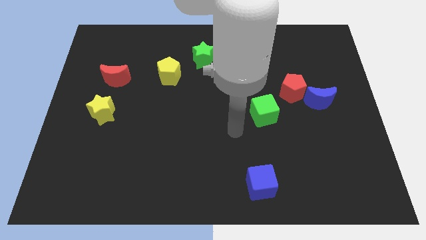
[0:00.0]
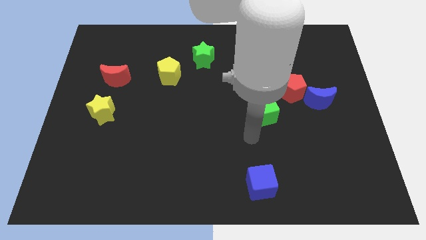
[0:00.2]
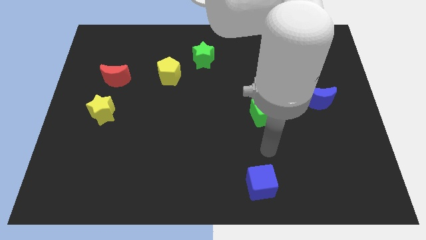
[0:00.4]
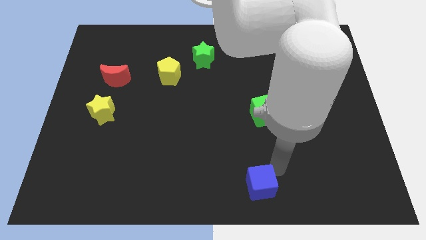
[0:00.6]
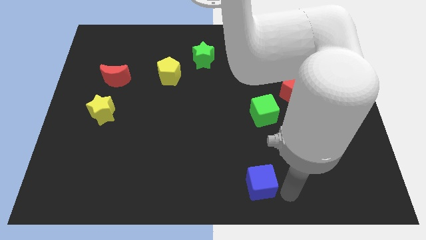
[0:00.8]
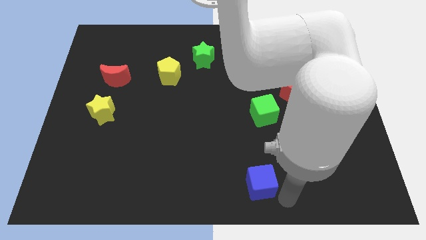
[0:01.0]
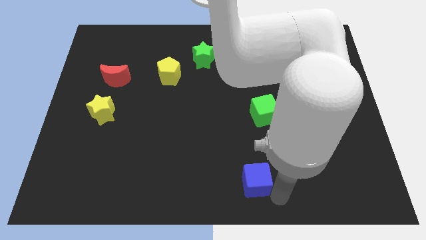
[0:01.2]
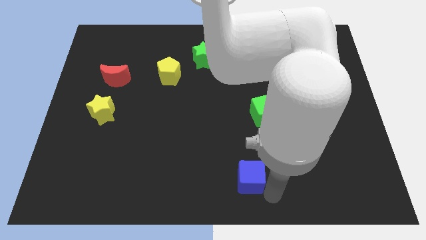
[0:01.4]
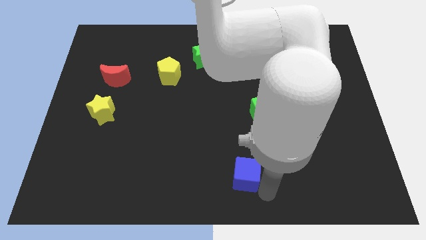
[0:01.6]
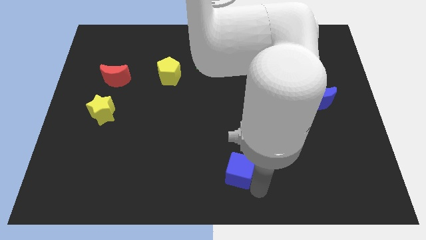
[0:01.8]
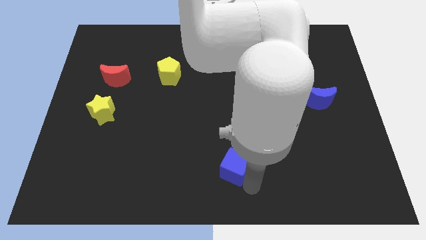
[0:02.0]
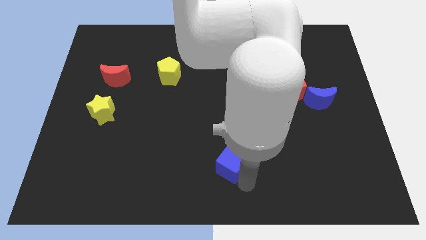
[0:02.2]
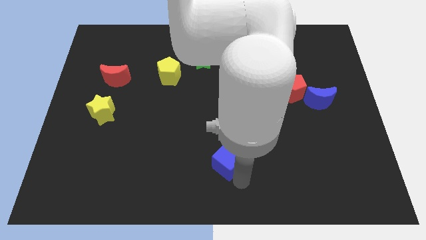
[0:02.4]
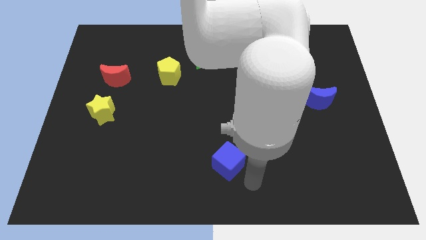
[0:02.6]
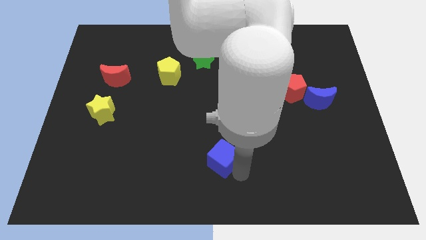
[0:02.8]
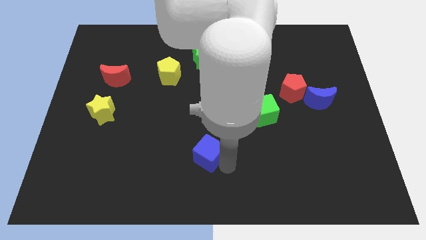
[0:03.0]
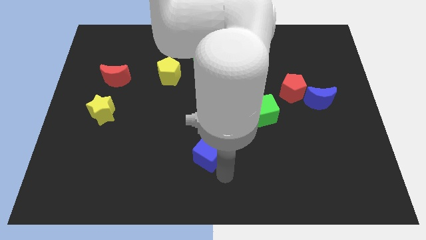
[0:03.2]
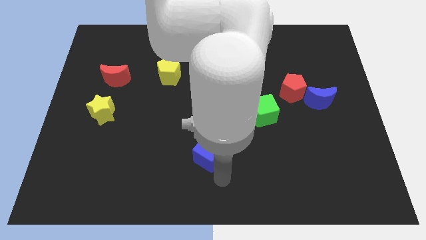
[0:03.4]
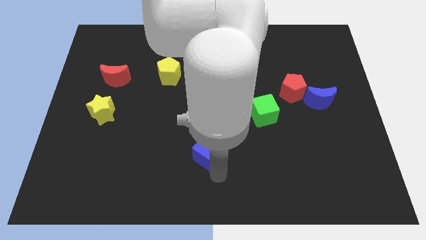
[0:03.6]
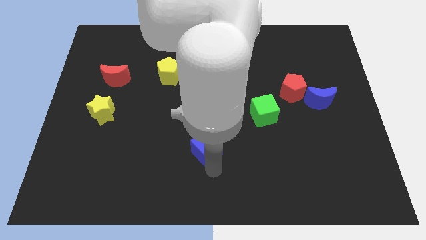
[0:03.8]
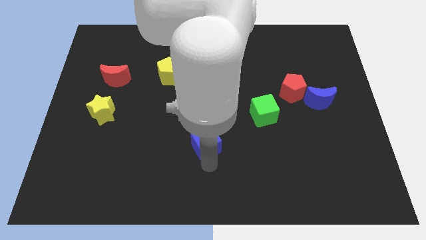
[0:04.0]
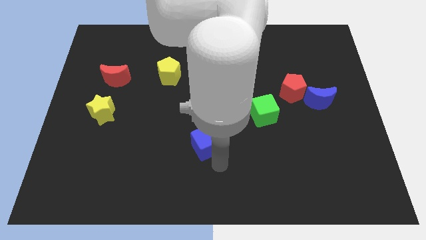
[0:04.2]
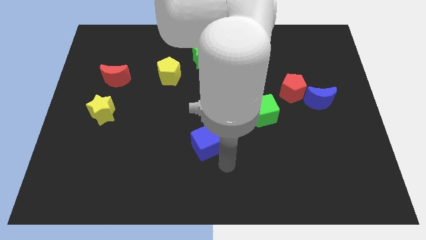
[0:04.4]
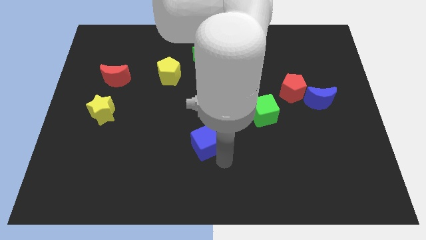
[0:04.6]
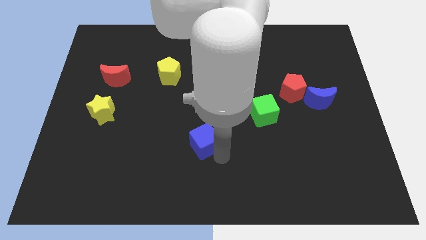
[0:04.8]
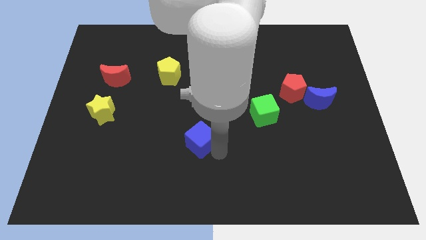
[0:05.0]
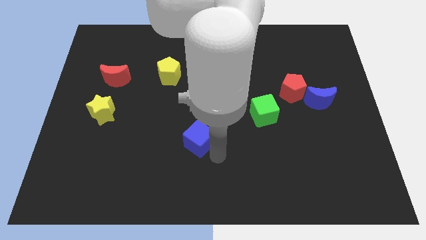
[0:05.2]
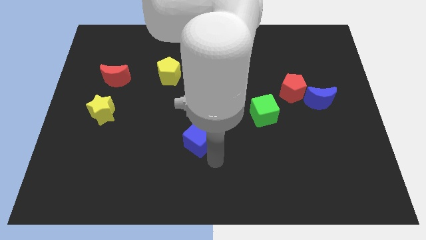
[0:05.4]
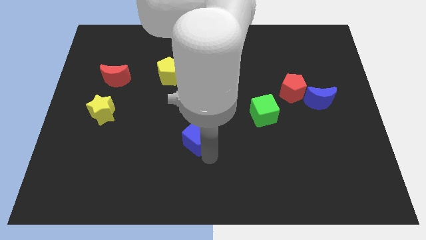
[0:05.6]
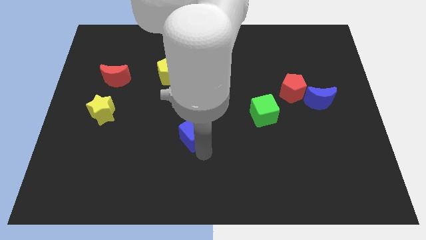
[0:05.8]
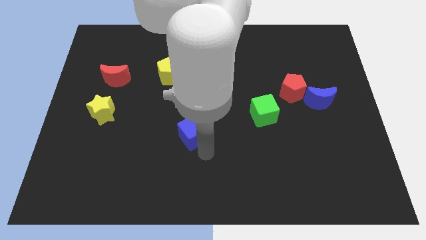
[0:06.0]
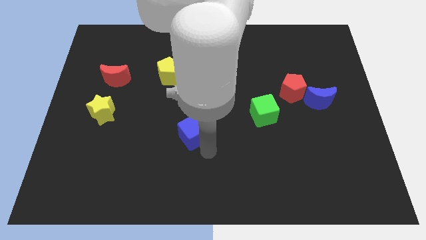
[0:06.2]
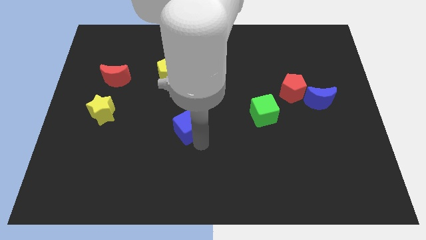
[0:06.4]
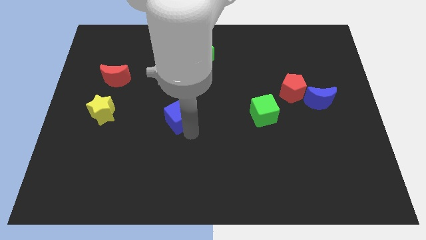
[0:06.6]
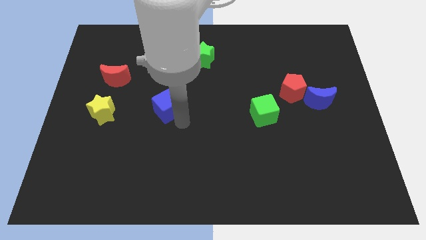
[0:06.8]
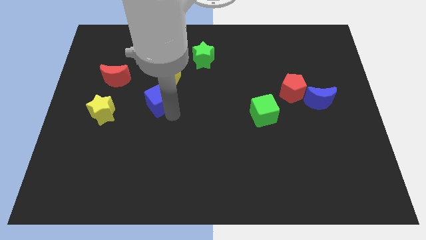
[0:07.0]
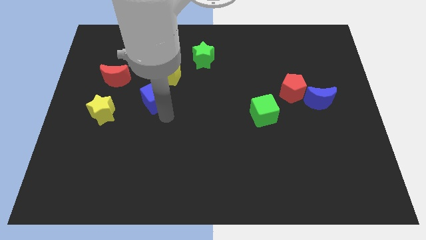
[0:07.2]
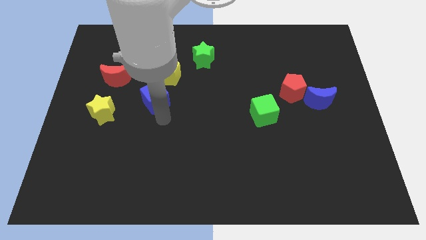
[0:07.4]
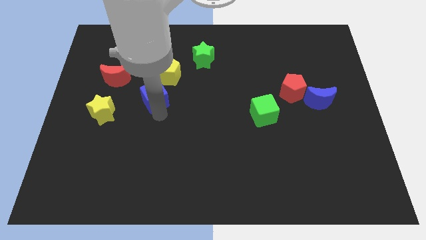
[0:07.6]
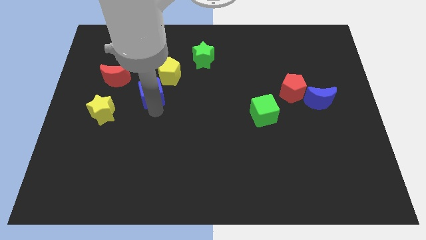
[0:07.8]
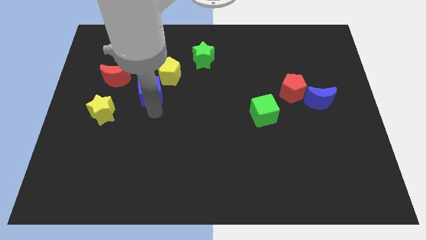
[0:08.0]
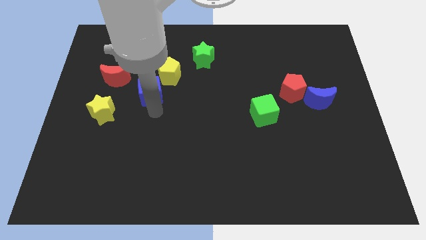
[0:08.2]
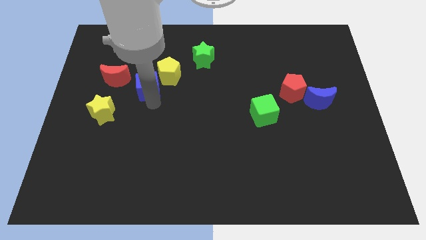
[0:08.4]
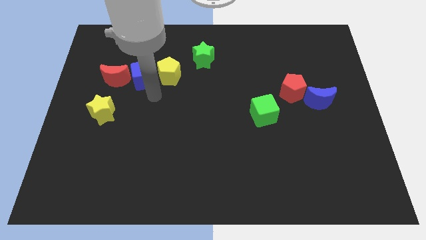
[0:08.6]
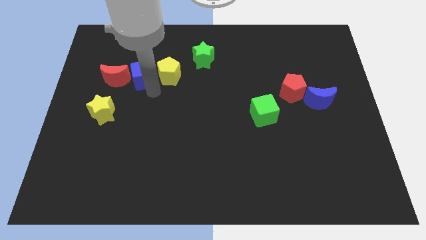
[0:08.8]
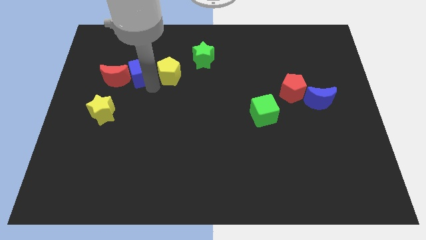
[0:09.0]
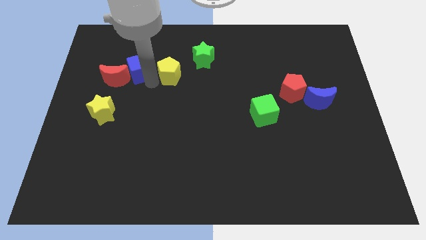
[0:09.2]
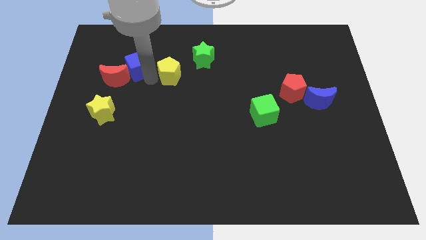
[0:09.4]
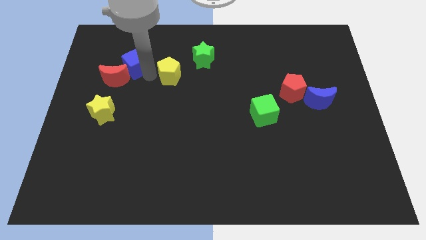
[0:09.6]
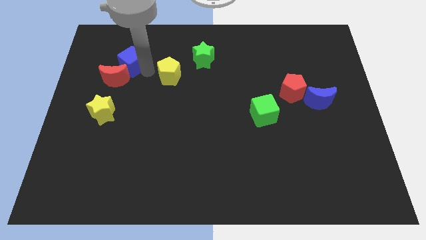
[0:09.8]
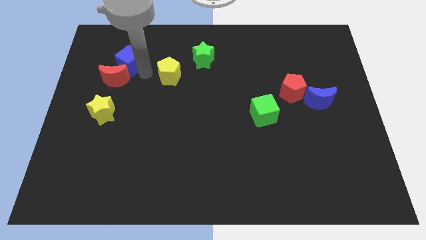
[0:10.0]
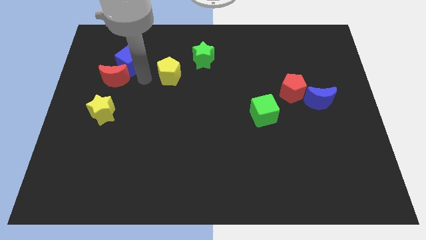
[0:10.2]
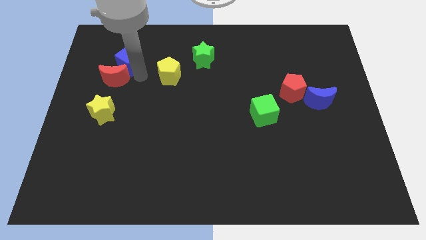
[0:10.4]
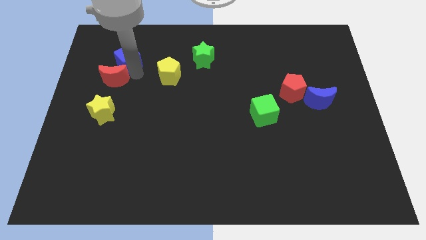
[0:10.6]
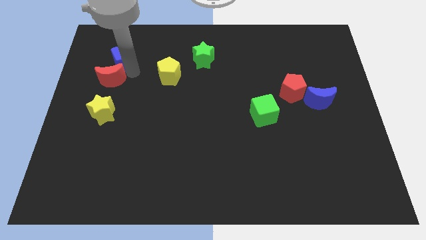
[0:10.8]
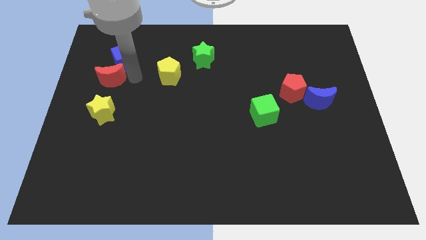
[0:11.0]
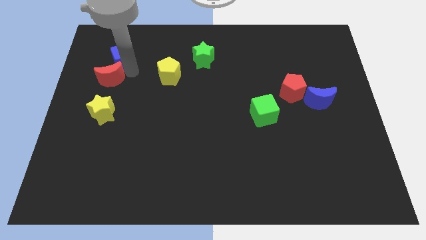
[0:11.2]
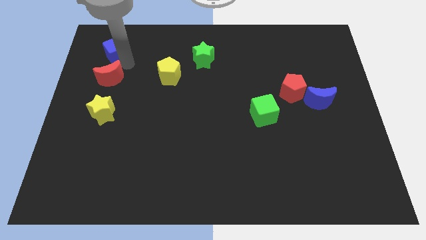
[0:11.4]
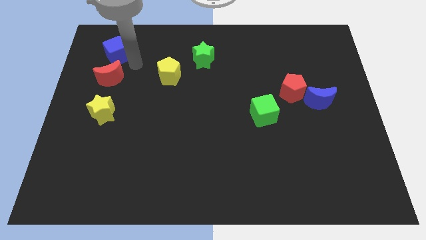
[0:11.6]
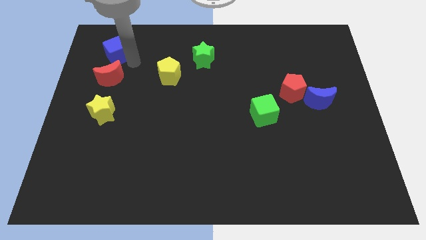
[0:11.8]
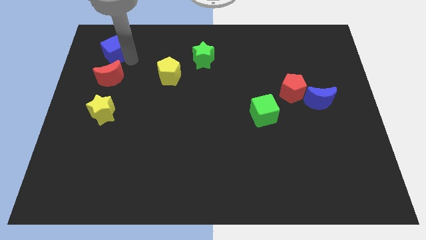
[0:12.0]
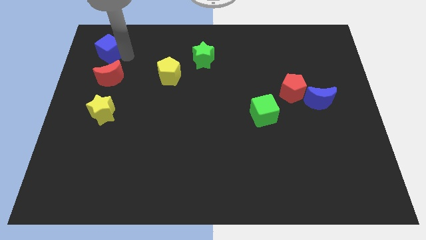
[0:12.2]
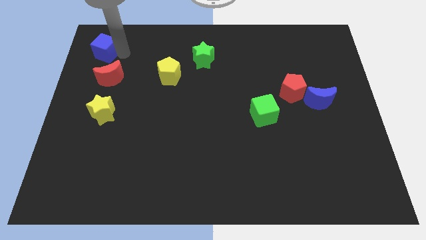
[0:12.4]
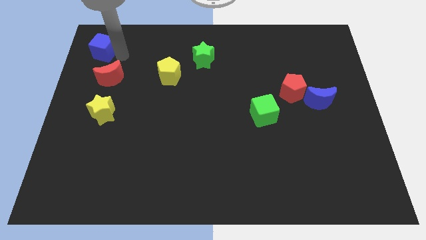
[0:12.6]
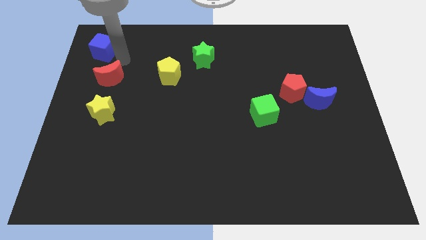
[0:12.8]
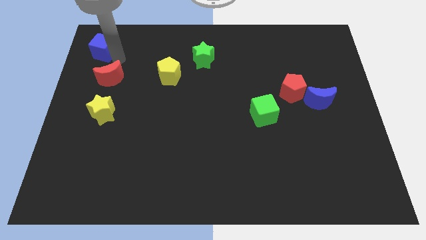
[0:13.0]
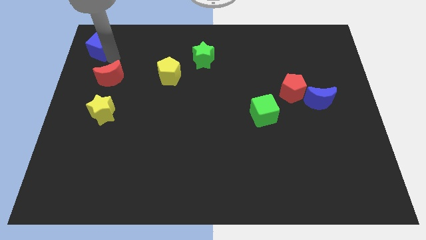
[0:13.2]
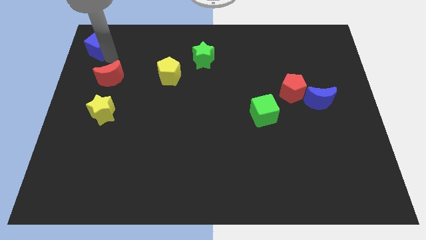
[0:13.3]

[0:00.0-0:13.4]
put the blue cube to the top left of the board
